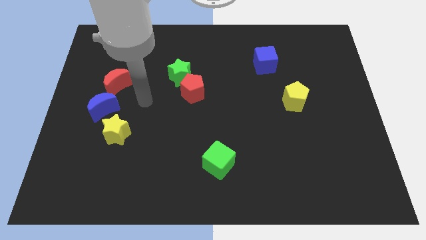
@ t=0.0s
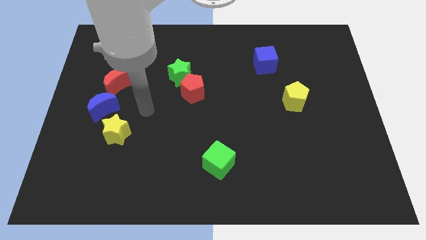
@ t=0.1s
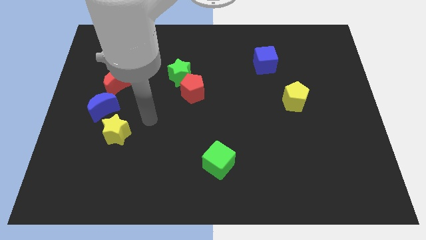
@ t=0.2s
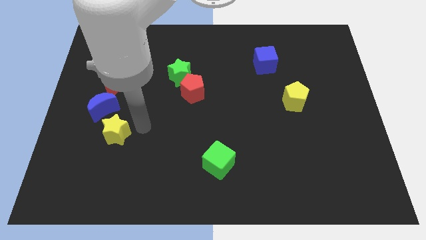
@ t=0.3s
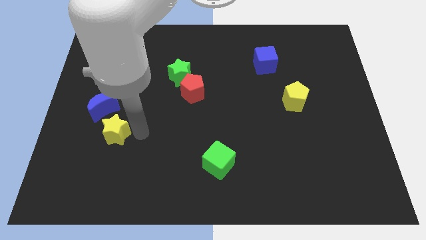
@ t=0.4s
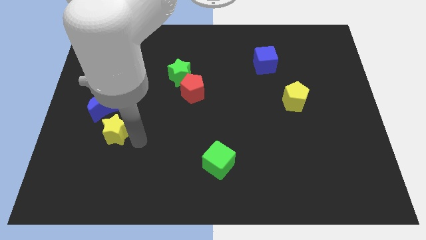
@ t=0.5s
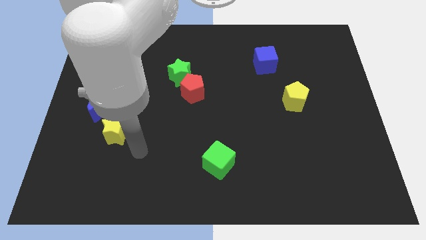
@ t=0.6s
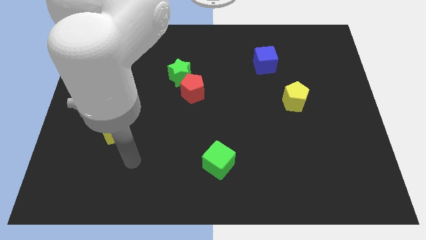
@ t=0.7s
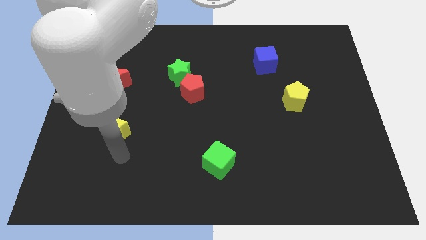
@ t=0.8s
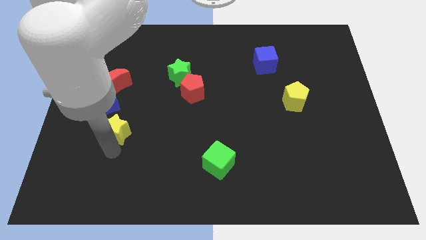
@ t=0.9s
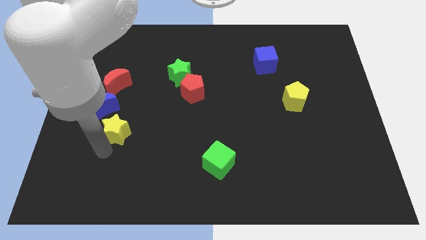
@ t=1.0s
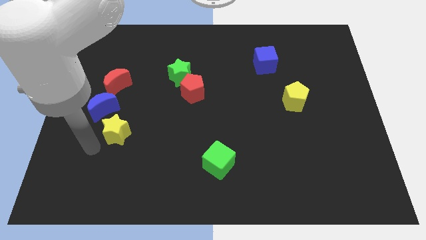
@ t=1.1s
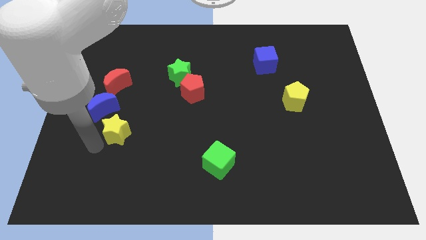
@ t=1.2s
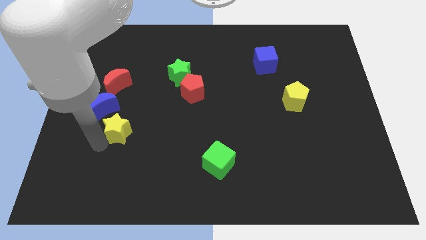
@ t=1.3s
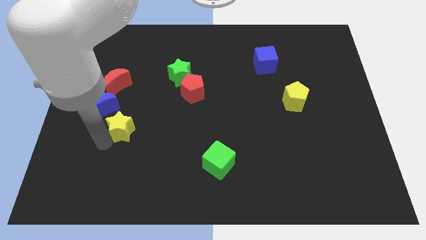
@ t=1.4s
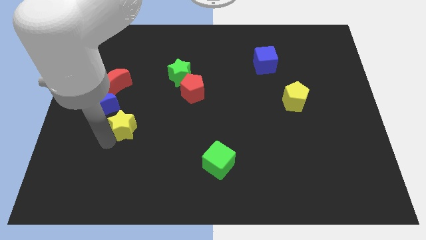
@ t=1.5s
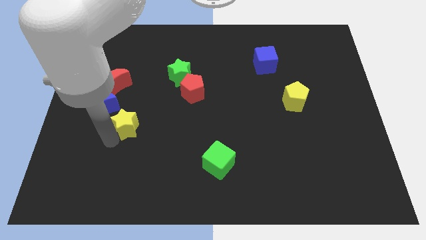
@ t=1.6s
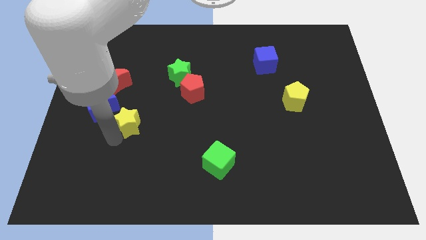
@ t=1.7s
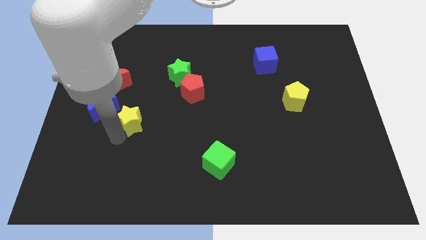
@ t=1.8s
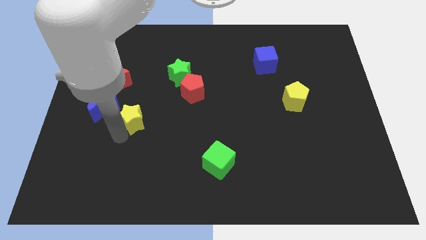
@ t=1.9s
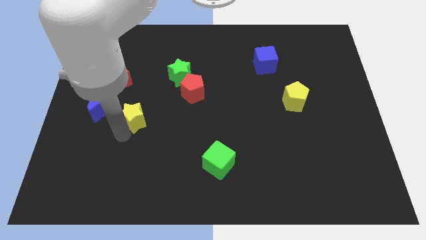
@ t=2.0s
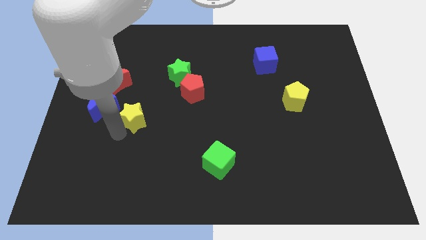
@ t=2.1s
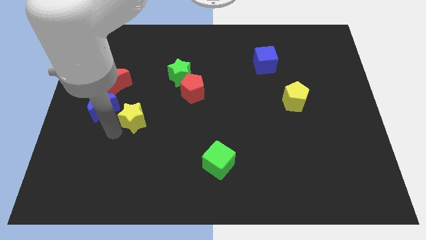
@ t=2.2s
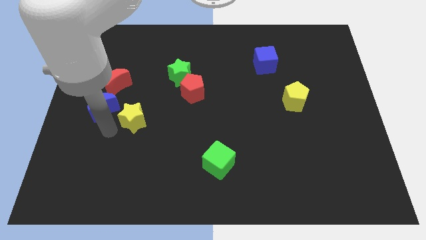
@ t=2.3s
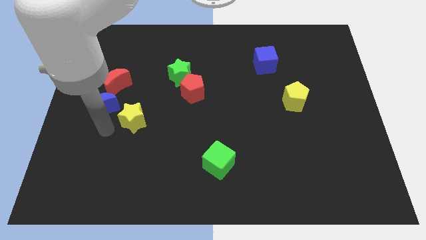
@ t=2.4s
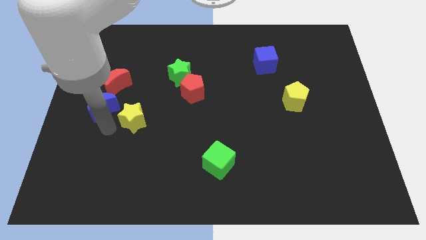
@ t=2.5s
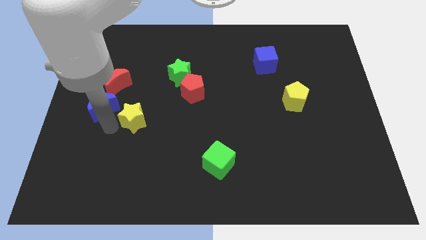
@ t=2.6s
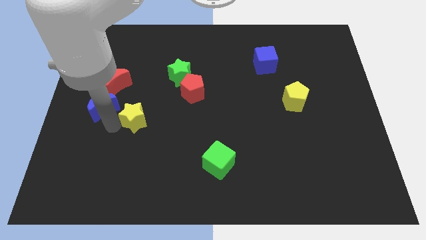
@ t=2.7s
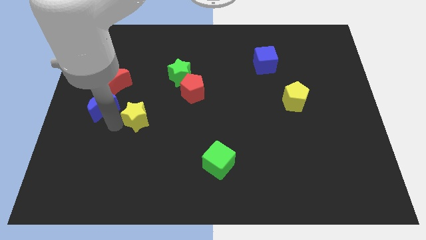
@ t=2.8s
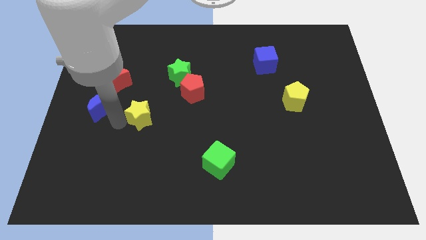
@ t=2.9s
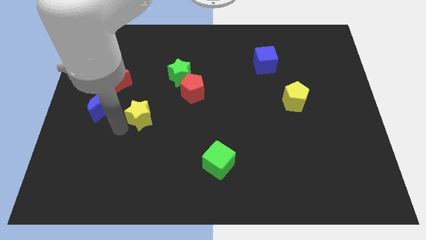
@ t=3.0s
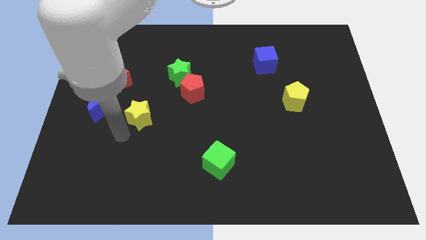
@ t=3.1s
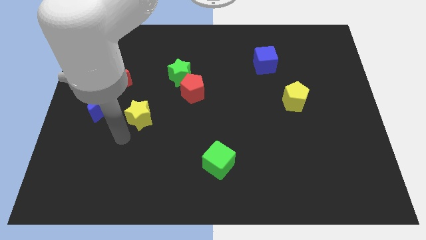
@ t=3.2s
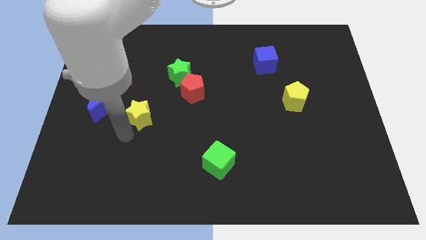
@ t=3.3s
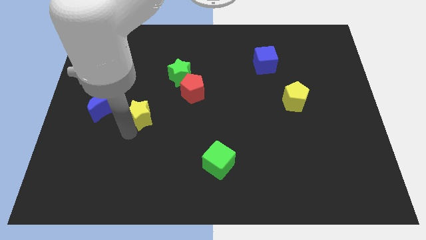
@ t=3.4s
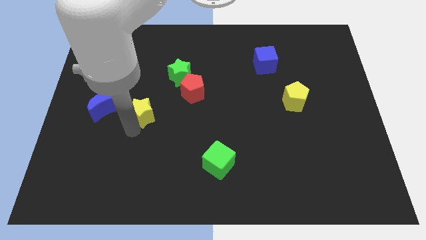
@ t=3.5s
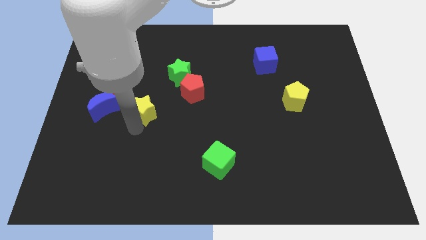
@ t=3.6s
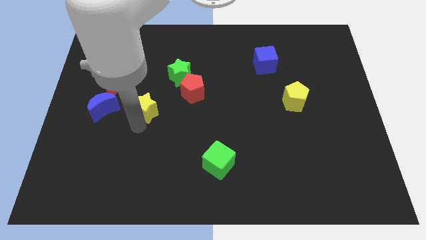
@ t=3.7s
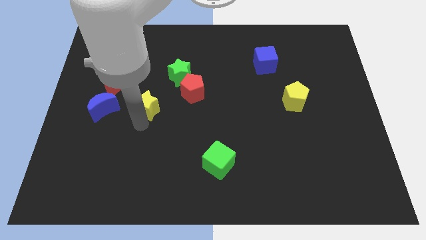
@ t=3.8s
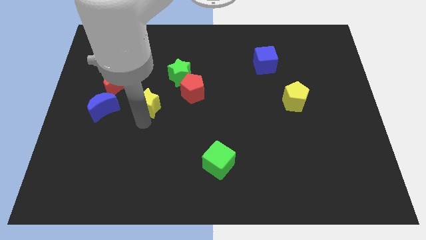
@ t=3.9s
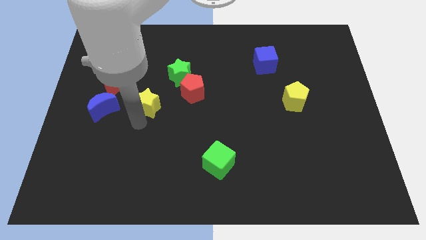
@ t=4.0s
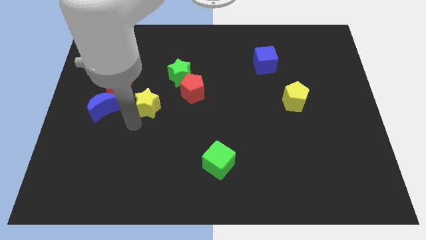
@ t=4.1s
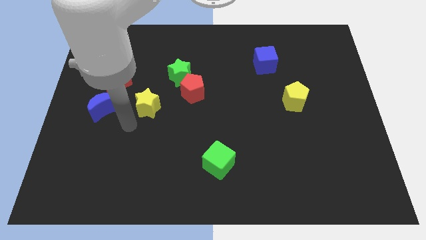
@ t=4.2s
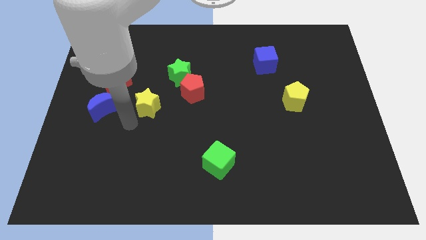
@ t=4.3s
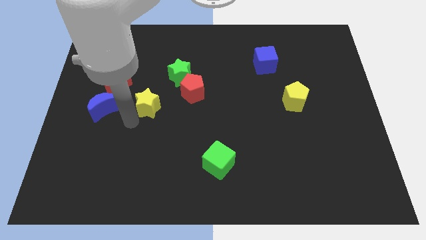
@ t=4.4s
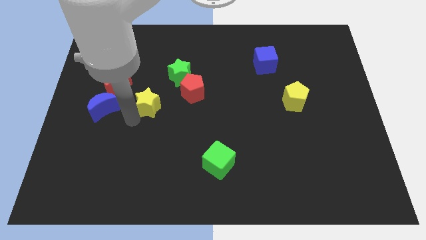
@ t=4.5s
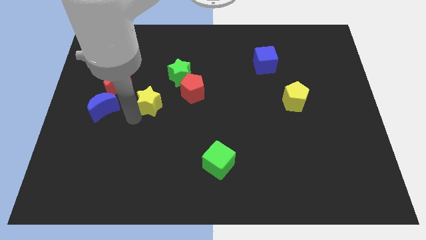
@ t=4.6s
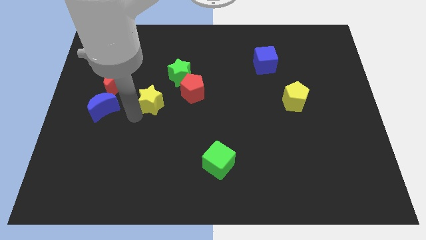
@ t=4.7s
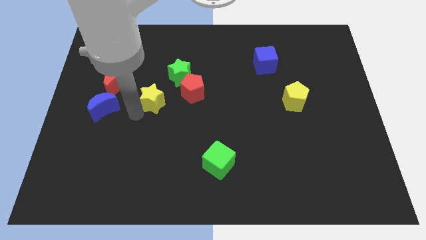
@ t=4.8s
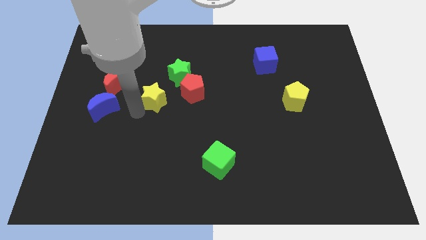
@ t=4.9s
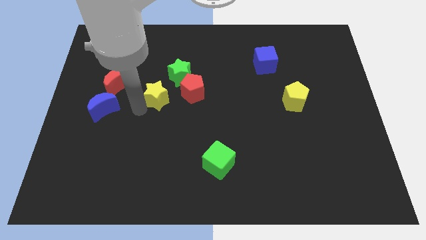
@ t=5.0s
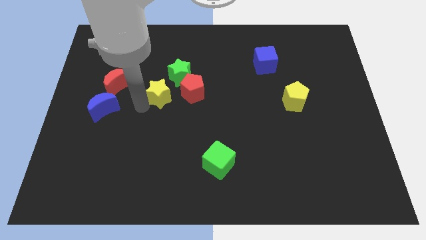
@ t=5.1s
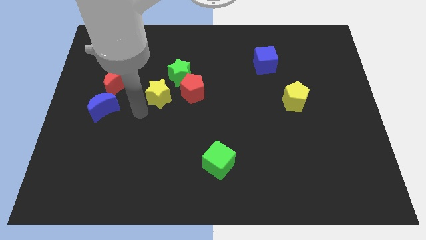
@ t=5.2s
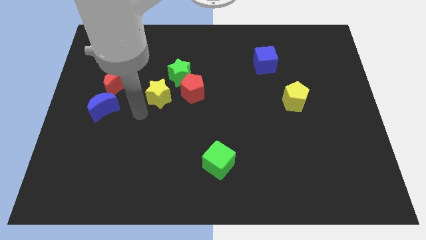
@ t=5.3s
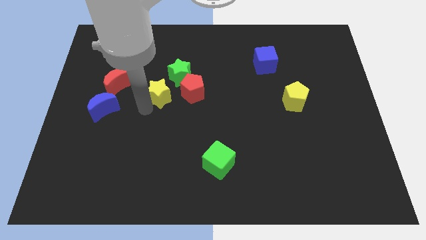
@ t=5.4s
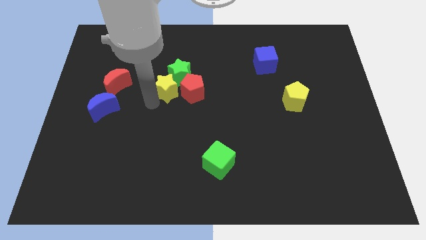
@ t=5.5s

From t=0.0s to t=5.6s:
put the yellow star next to the green star

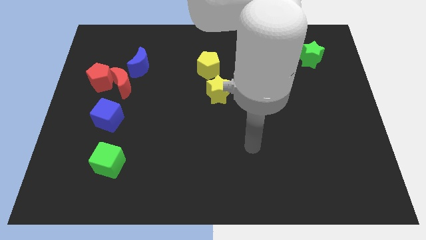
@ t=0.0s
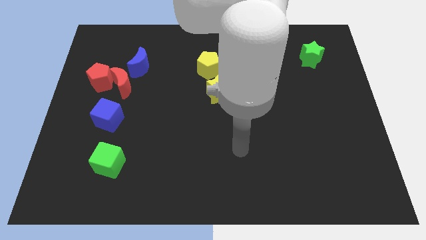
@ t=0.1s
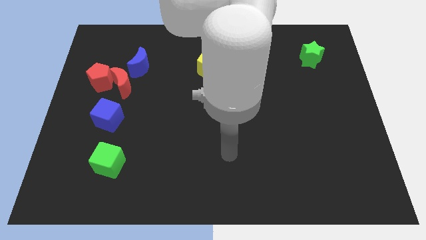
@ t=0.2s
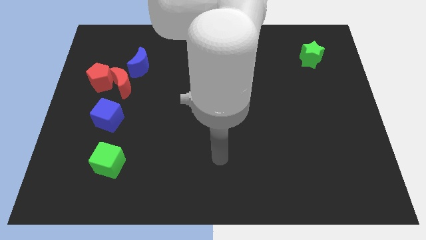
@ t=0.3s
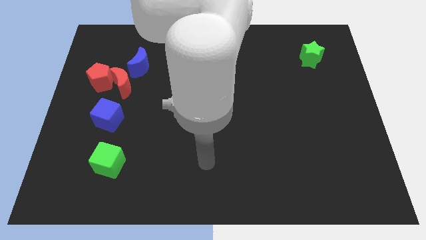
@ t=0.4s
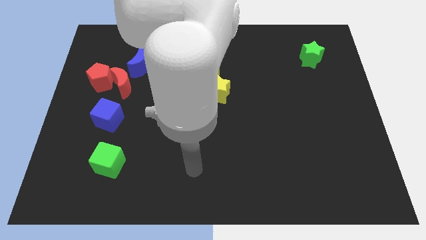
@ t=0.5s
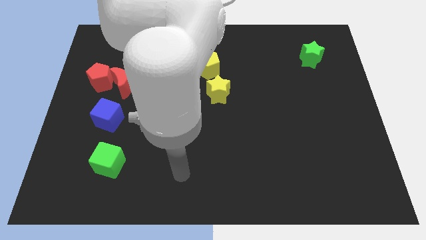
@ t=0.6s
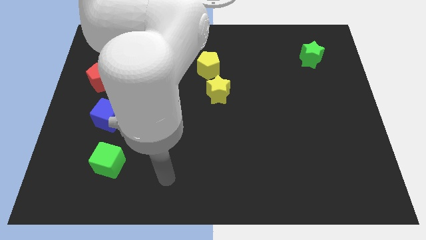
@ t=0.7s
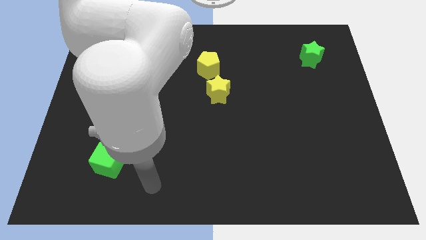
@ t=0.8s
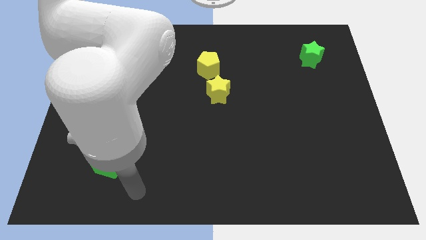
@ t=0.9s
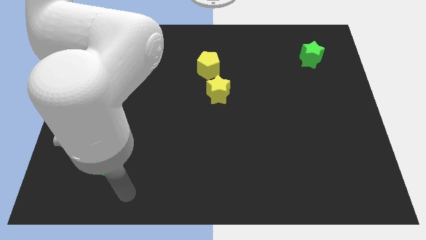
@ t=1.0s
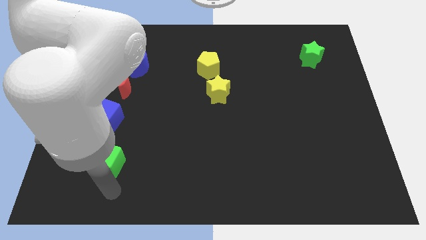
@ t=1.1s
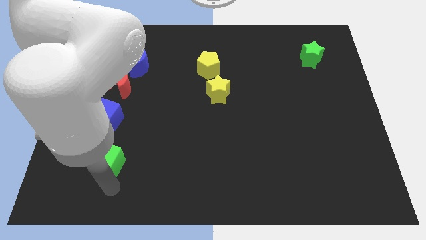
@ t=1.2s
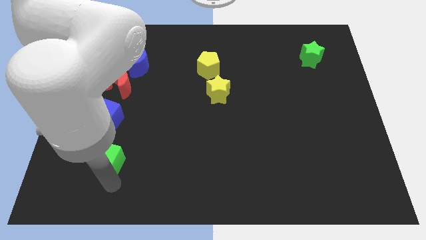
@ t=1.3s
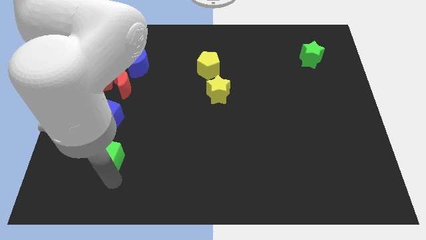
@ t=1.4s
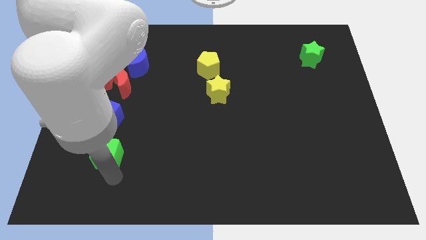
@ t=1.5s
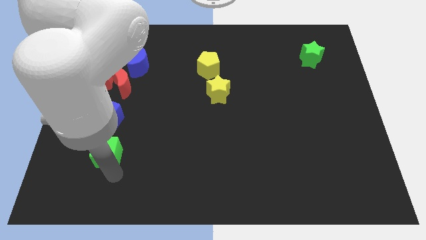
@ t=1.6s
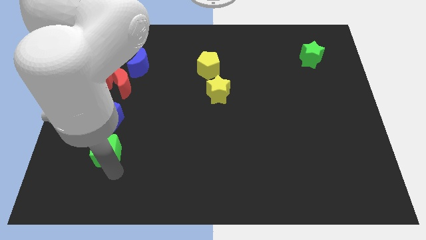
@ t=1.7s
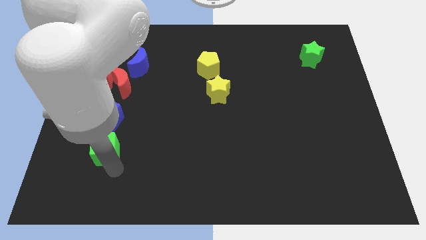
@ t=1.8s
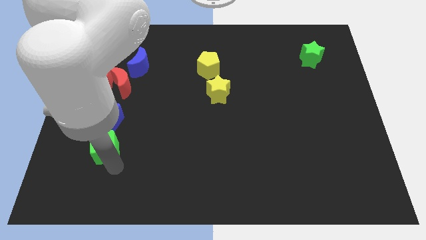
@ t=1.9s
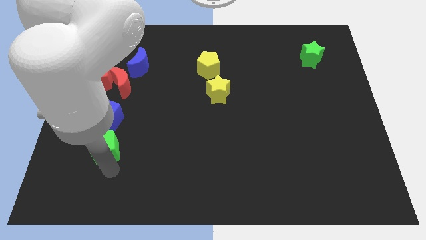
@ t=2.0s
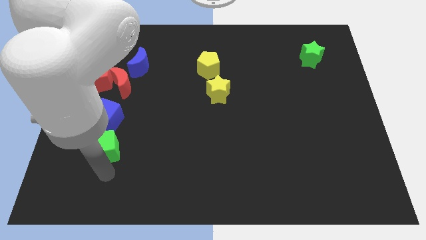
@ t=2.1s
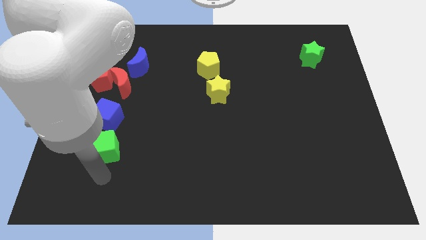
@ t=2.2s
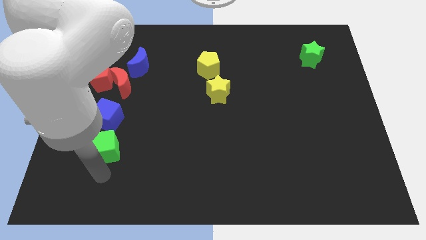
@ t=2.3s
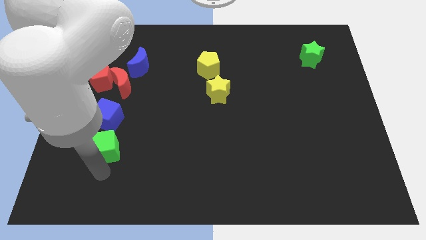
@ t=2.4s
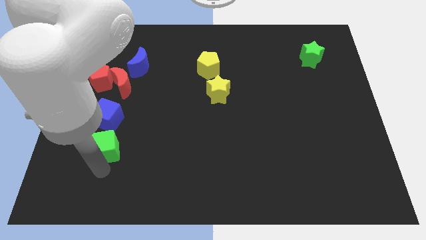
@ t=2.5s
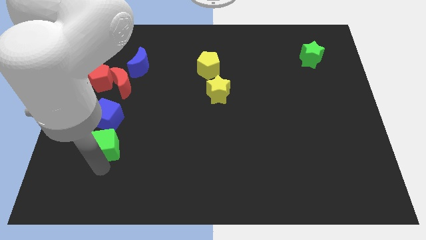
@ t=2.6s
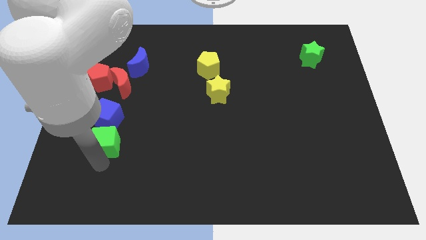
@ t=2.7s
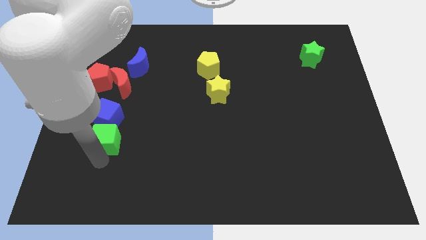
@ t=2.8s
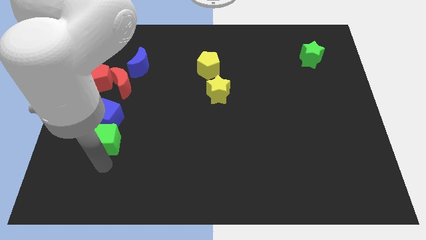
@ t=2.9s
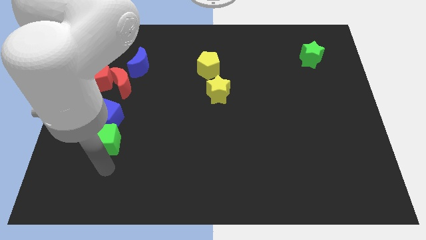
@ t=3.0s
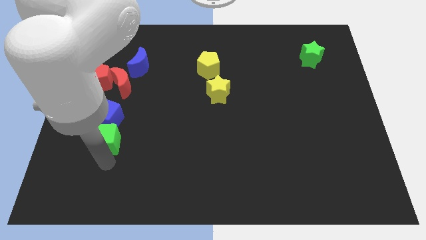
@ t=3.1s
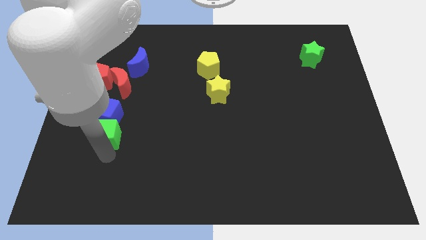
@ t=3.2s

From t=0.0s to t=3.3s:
put the green cube towards the blue cube
